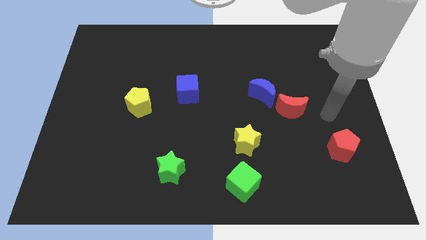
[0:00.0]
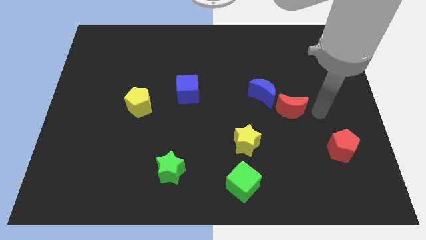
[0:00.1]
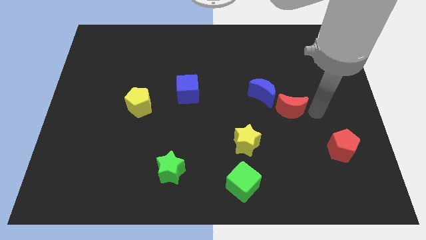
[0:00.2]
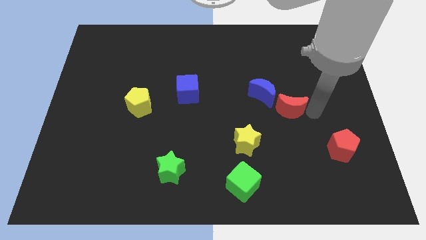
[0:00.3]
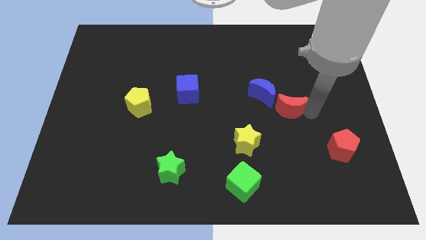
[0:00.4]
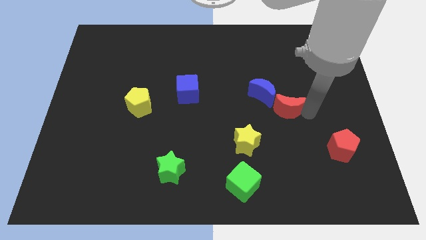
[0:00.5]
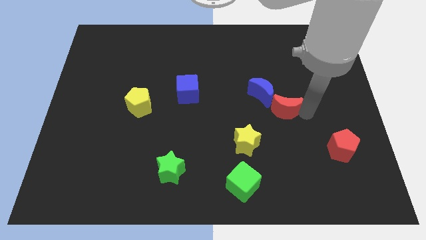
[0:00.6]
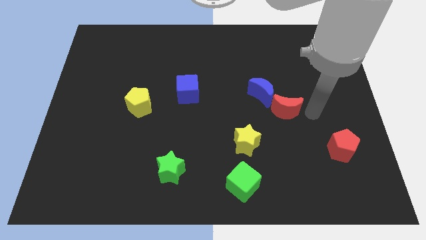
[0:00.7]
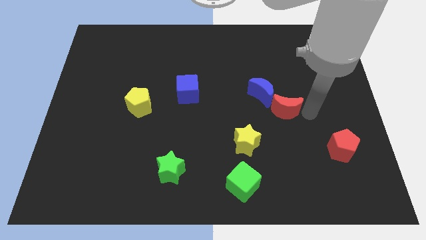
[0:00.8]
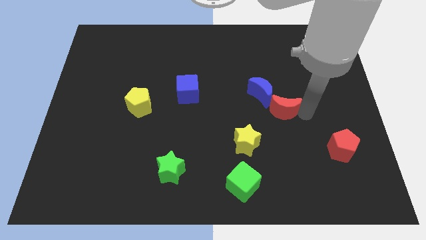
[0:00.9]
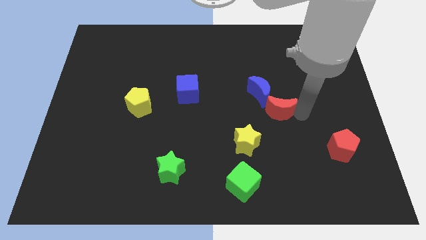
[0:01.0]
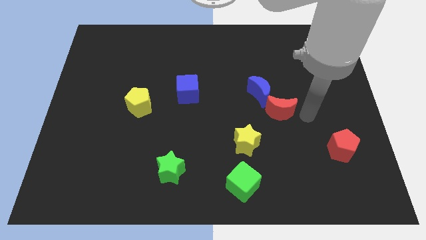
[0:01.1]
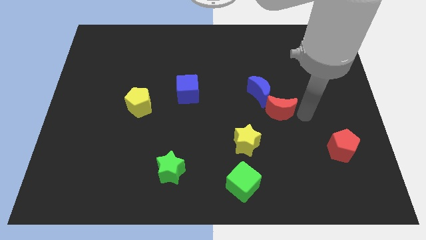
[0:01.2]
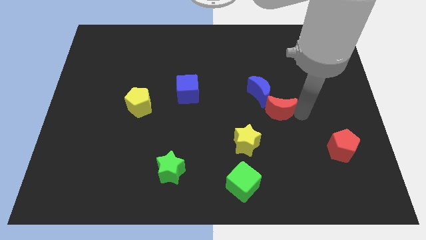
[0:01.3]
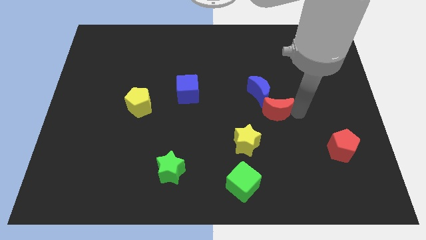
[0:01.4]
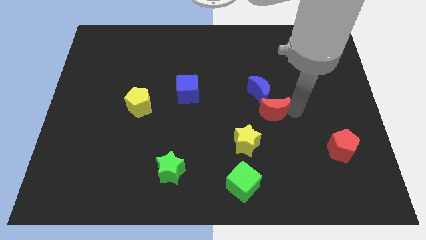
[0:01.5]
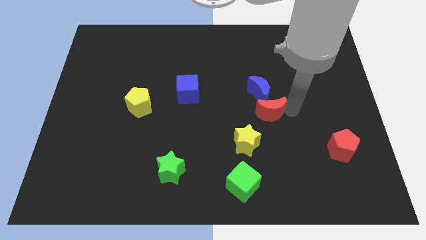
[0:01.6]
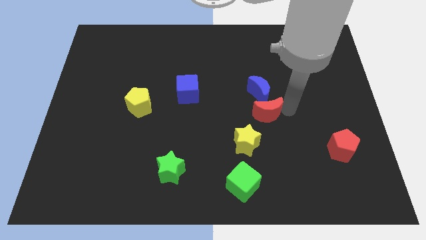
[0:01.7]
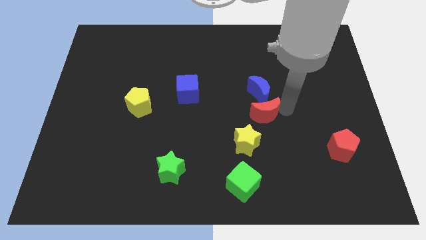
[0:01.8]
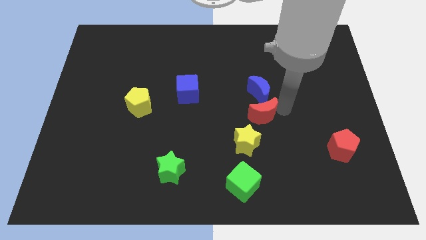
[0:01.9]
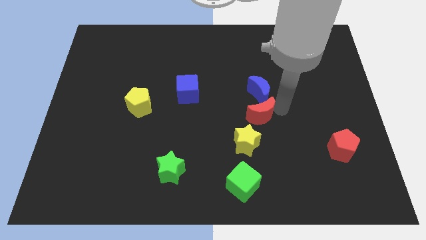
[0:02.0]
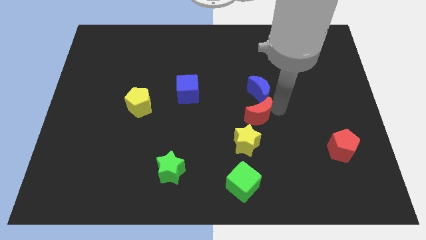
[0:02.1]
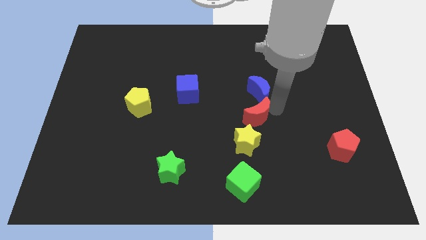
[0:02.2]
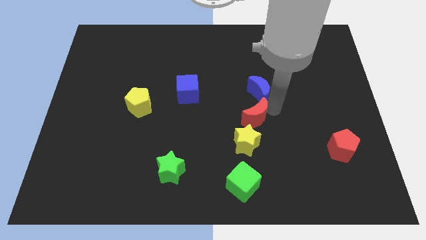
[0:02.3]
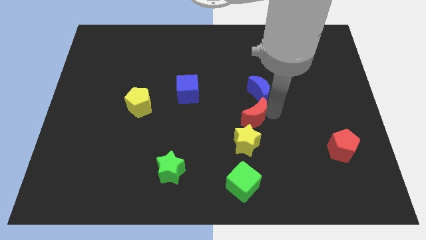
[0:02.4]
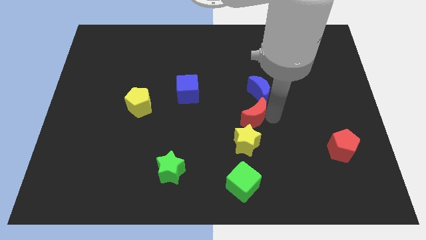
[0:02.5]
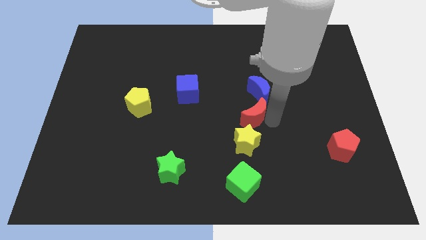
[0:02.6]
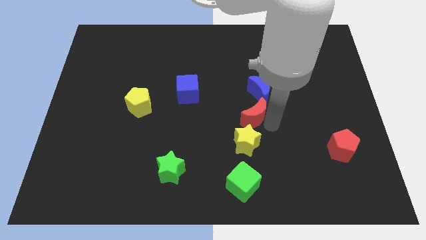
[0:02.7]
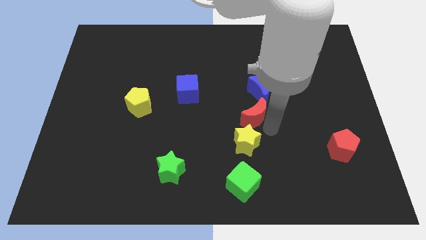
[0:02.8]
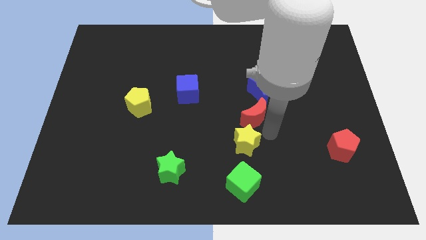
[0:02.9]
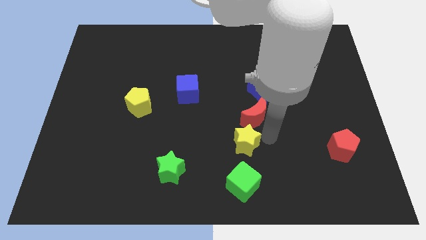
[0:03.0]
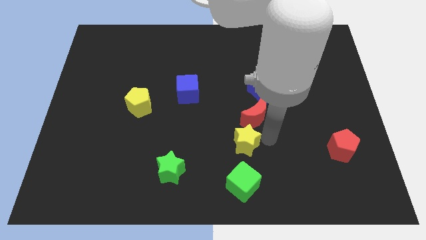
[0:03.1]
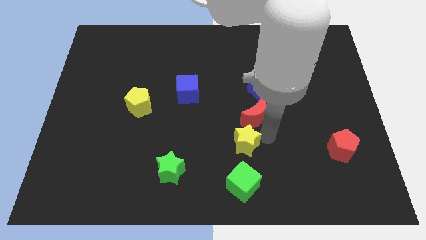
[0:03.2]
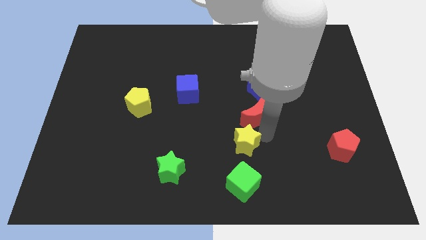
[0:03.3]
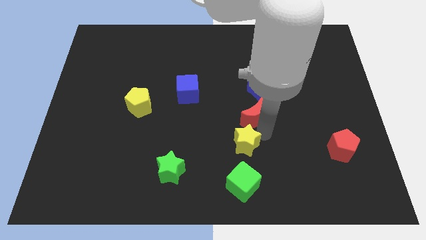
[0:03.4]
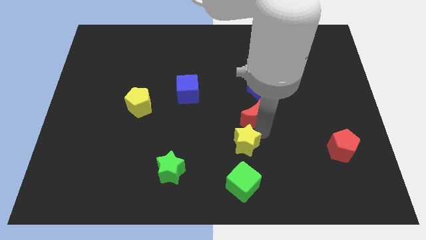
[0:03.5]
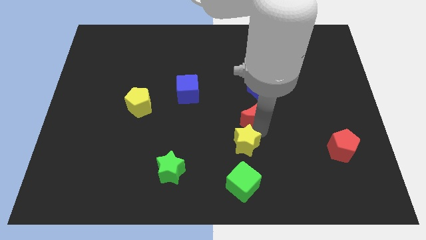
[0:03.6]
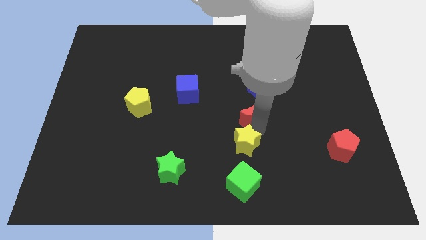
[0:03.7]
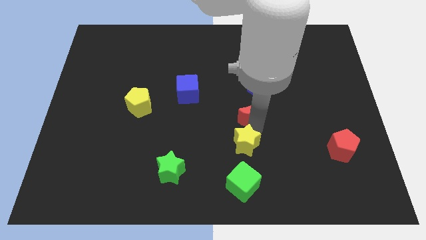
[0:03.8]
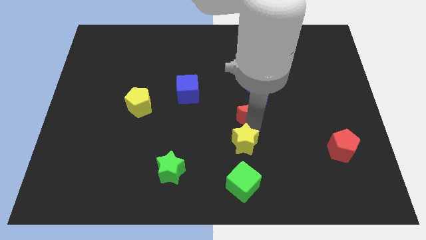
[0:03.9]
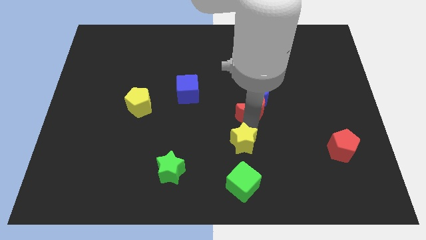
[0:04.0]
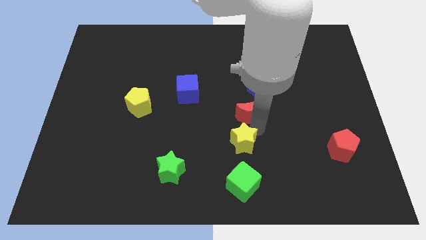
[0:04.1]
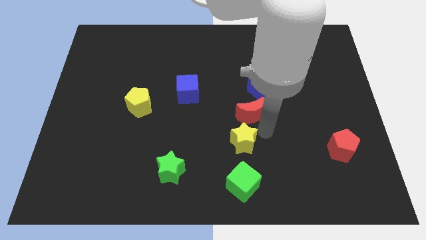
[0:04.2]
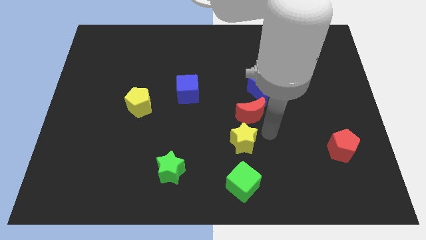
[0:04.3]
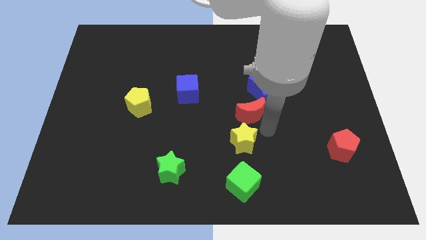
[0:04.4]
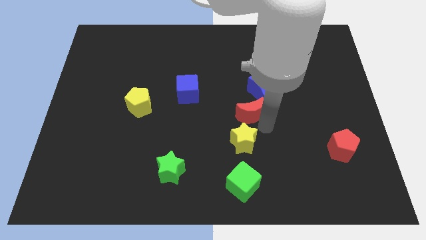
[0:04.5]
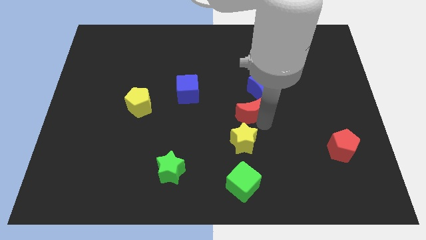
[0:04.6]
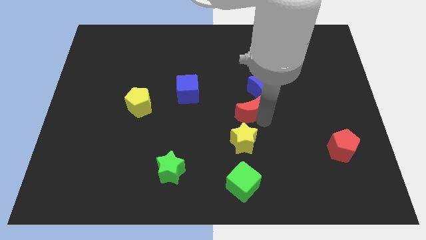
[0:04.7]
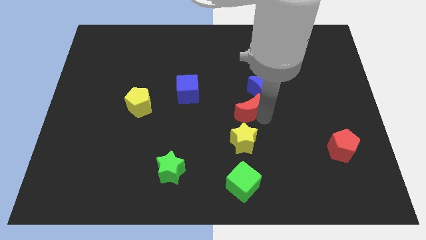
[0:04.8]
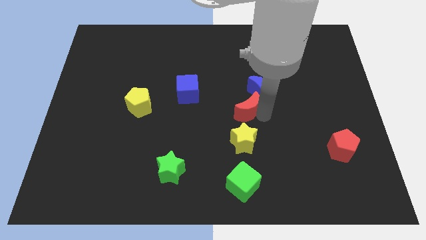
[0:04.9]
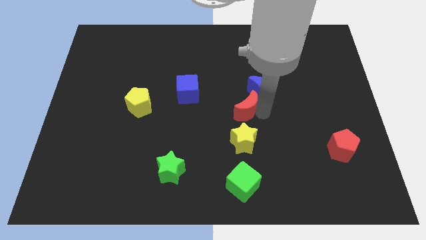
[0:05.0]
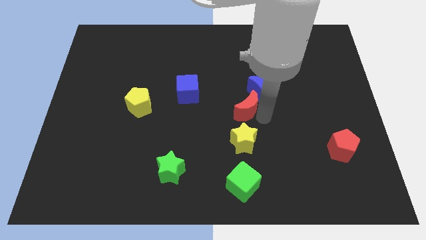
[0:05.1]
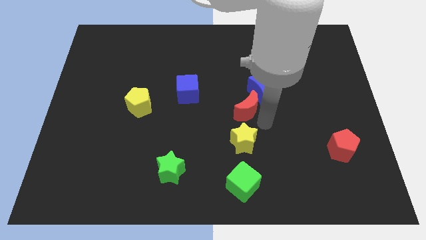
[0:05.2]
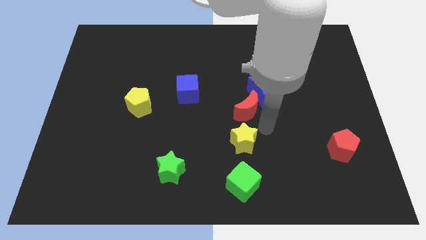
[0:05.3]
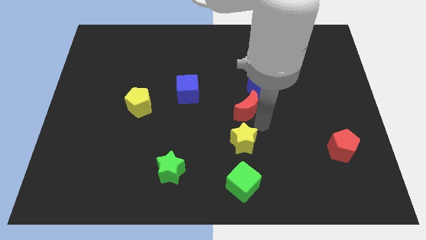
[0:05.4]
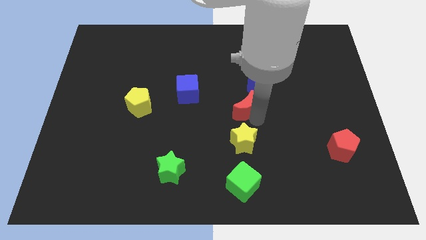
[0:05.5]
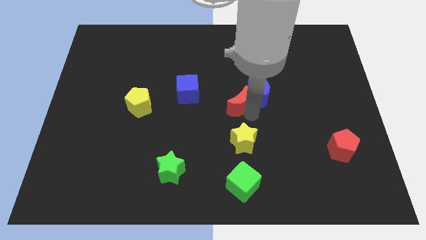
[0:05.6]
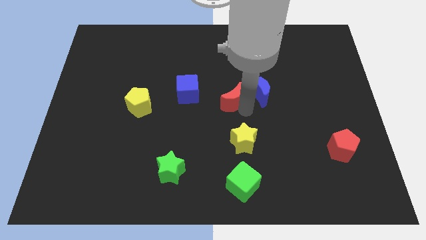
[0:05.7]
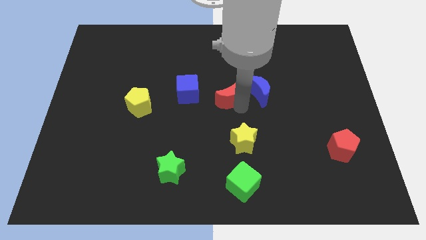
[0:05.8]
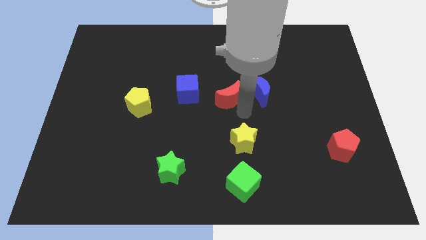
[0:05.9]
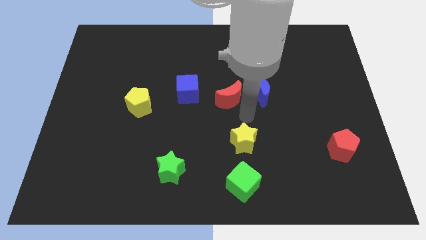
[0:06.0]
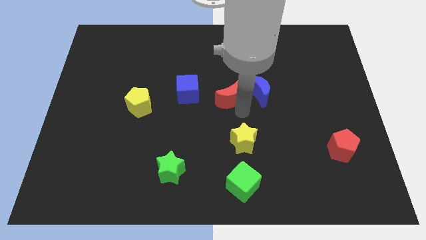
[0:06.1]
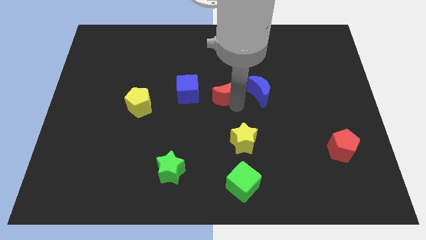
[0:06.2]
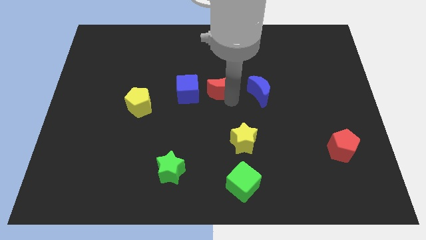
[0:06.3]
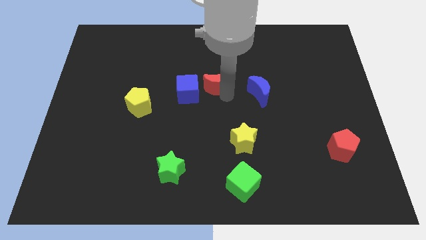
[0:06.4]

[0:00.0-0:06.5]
put the red moon diagonally up and to the right of the blue cube

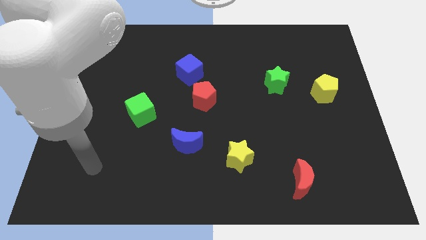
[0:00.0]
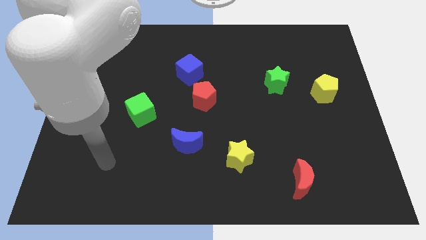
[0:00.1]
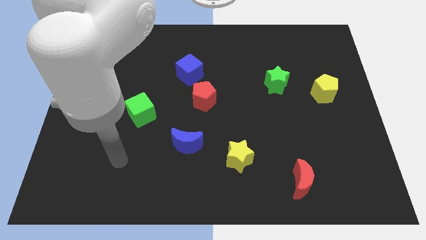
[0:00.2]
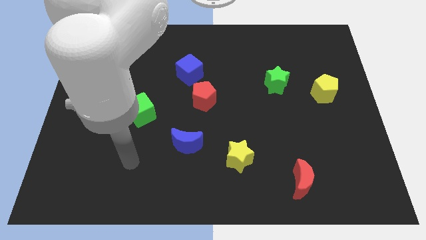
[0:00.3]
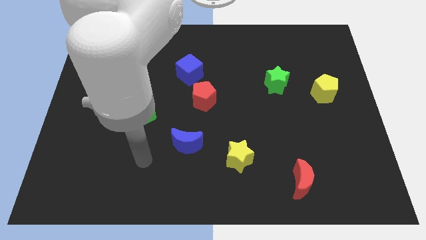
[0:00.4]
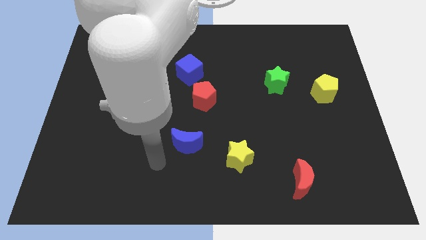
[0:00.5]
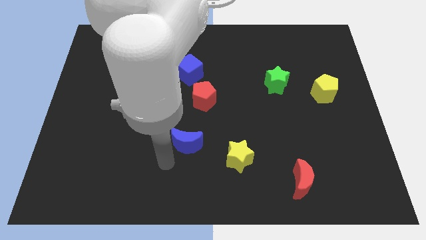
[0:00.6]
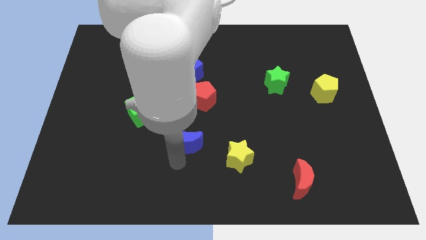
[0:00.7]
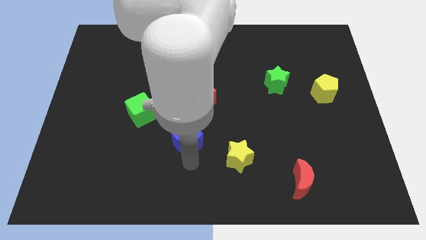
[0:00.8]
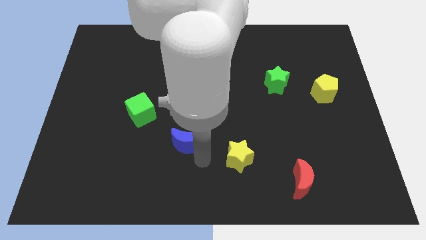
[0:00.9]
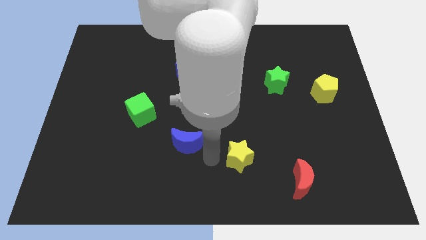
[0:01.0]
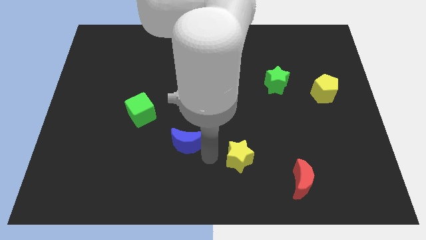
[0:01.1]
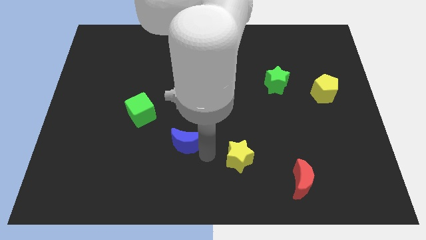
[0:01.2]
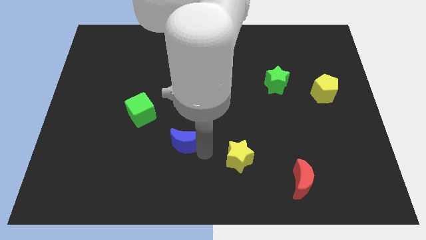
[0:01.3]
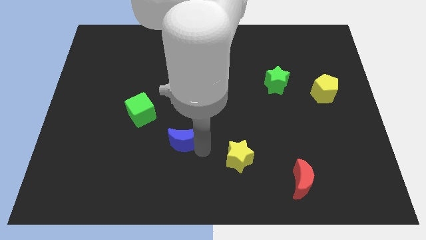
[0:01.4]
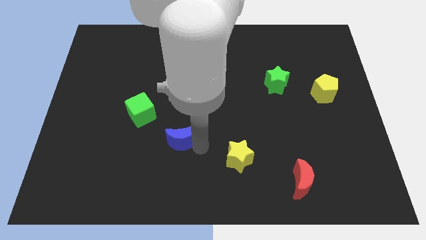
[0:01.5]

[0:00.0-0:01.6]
push the blue moon diagonally down and to the right of the green cube
